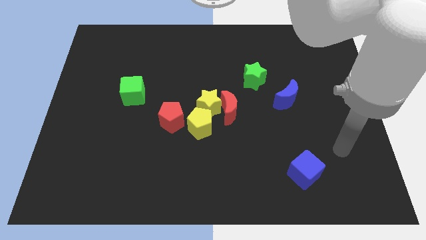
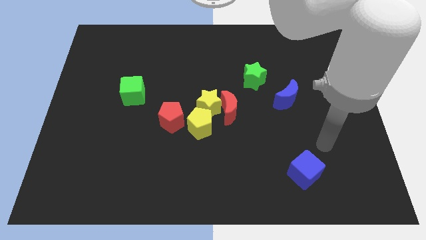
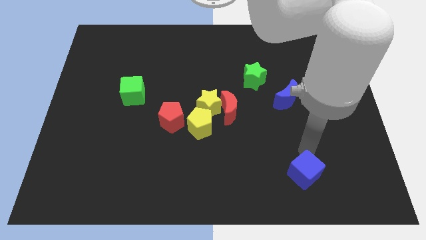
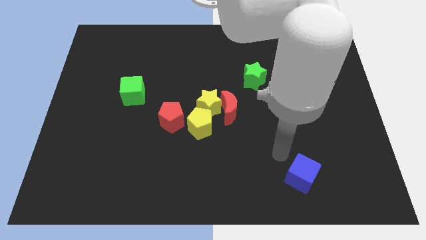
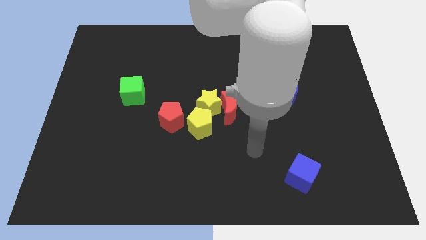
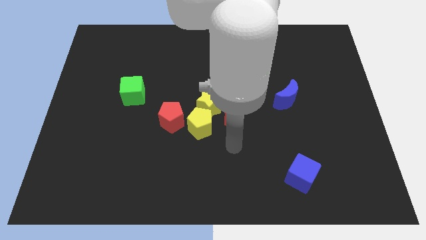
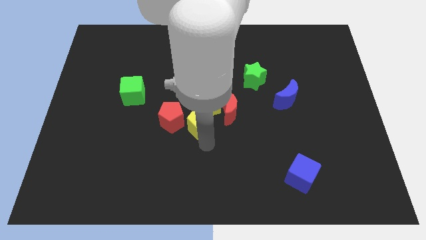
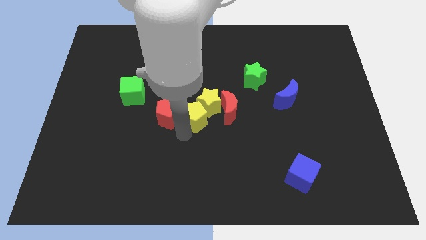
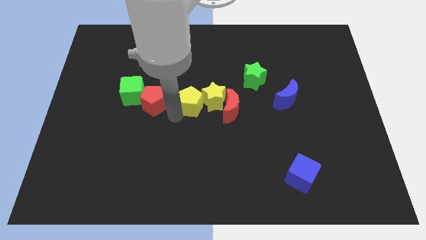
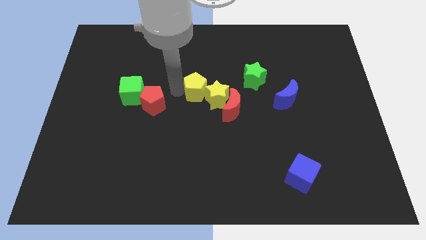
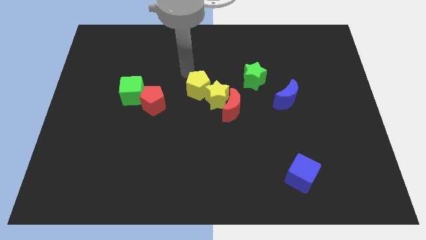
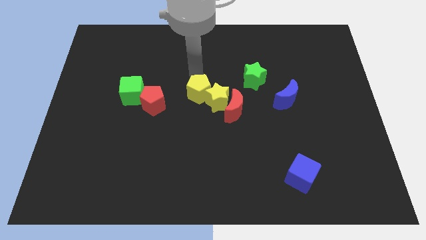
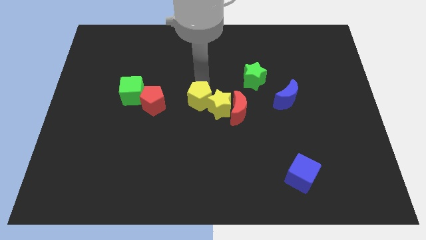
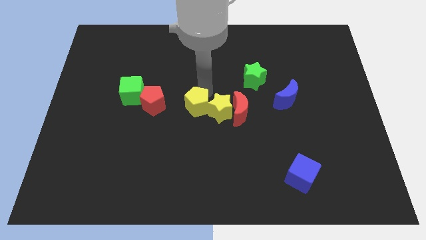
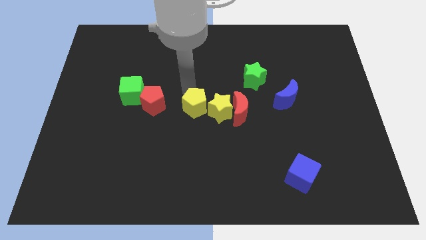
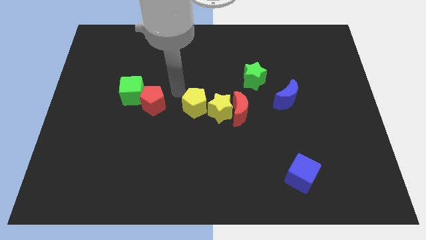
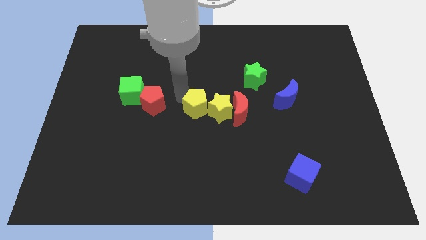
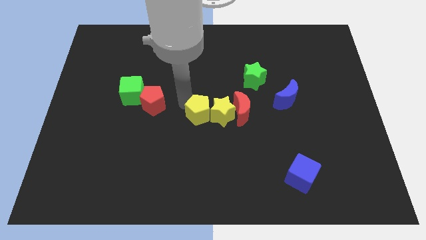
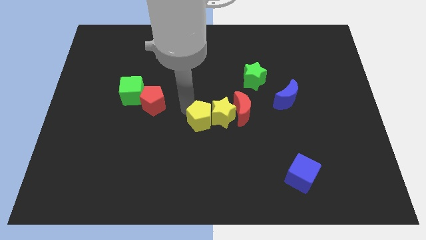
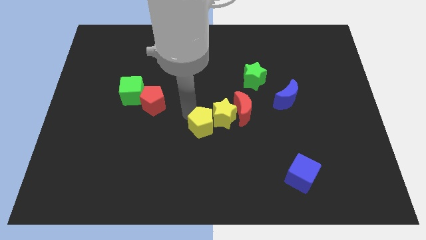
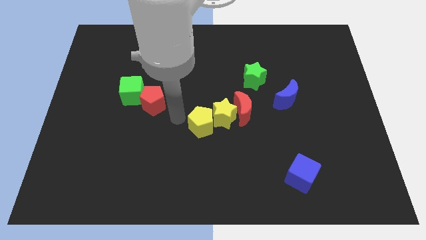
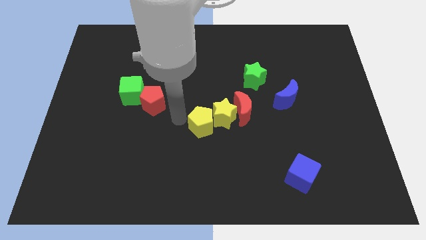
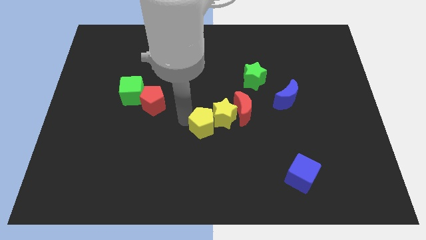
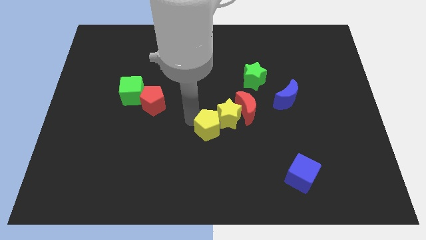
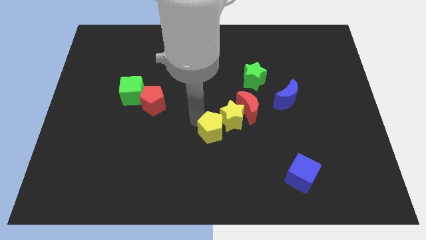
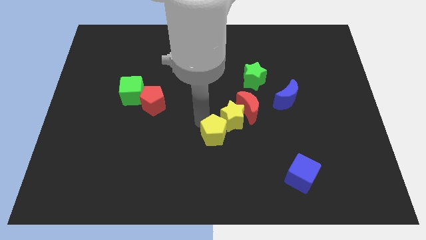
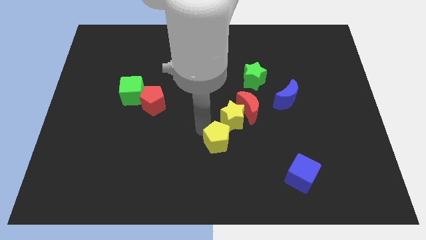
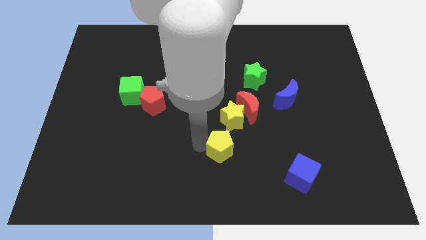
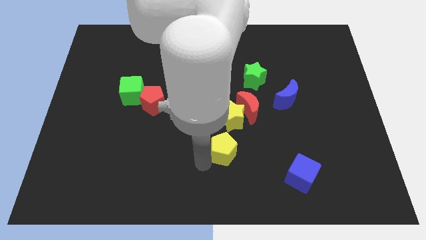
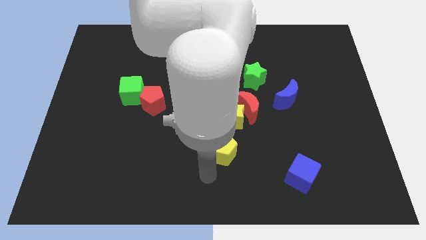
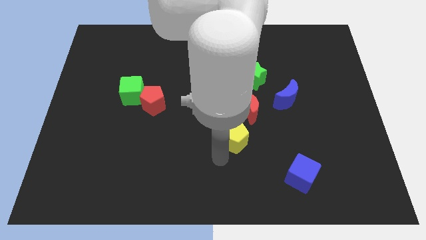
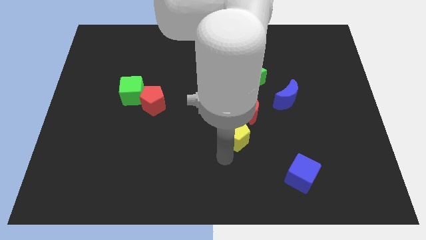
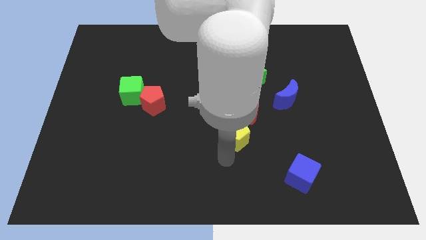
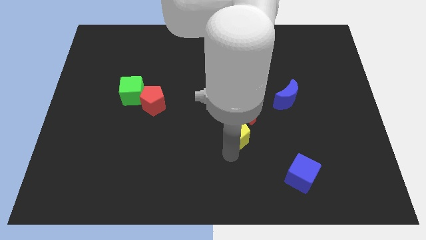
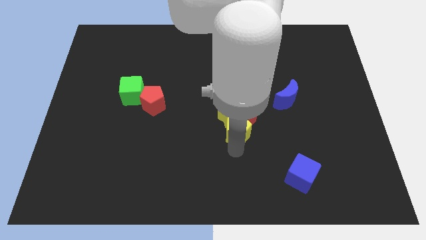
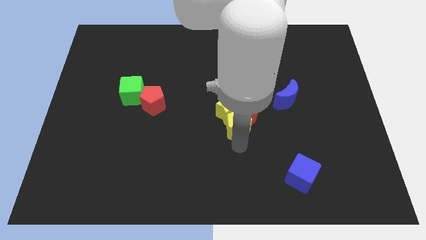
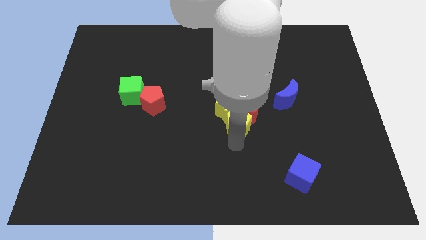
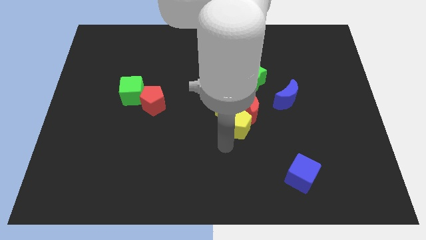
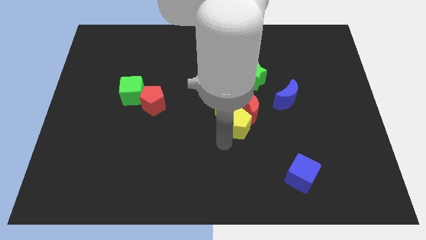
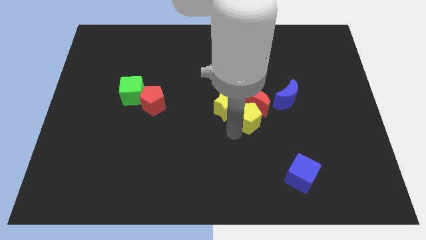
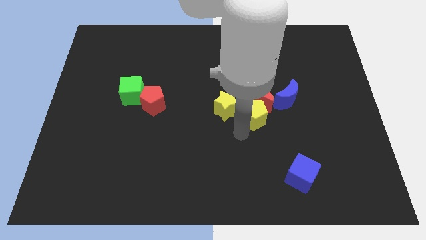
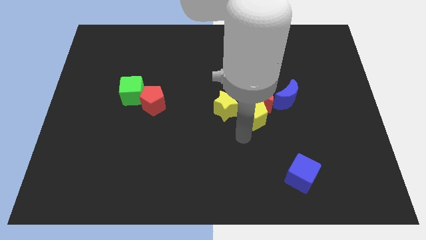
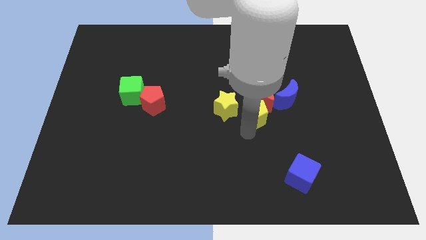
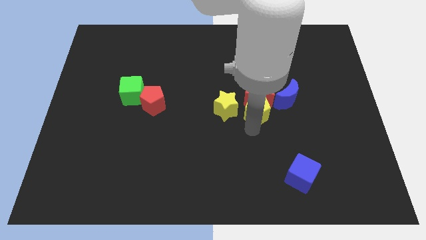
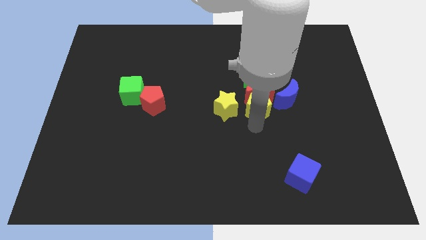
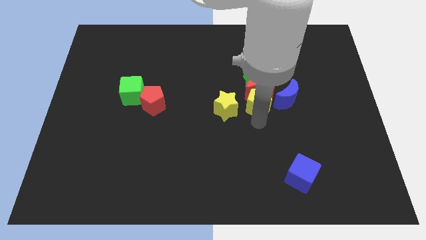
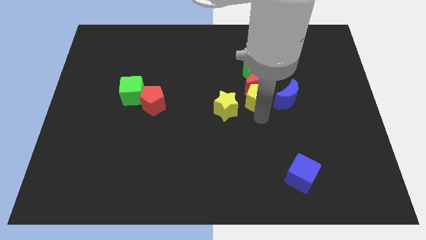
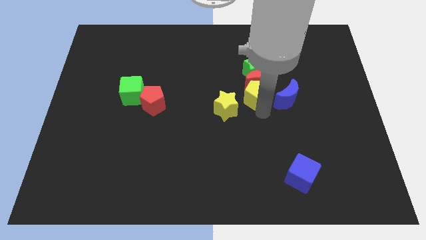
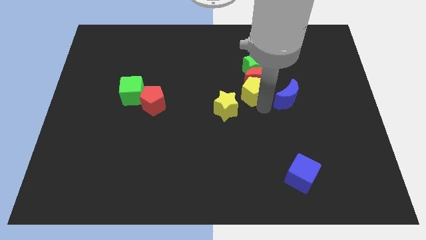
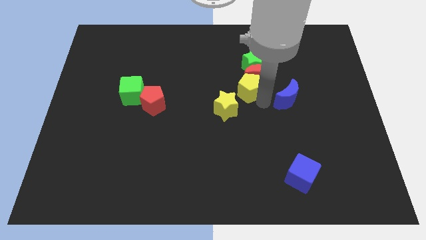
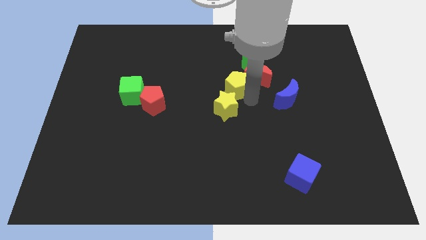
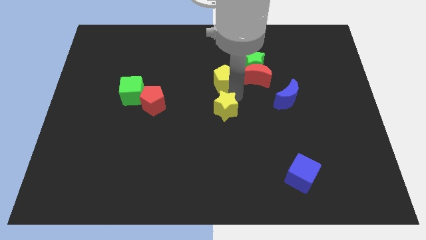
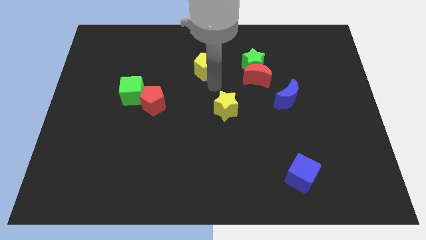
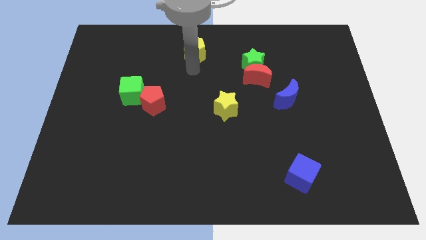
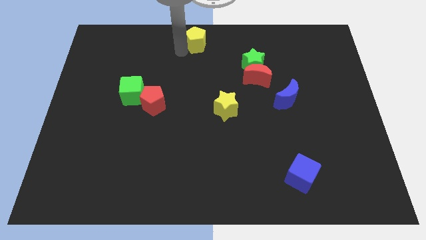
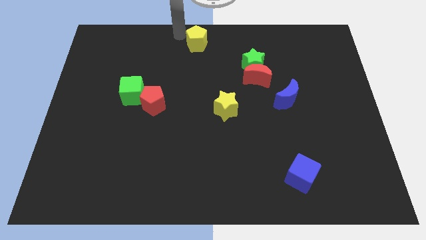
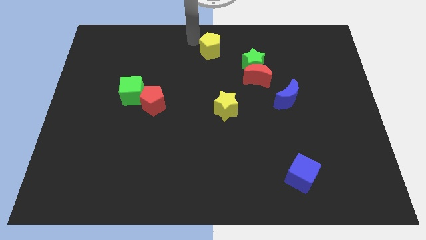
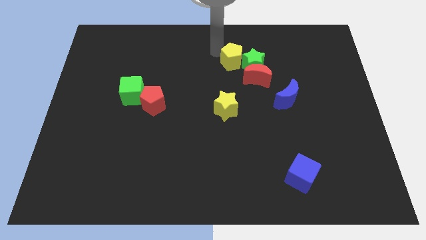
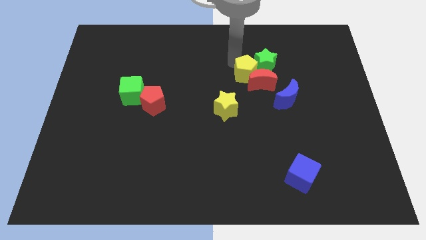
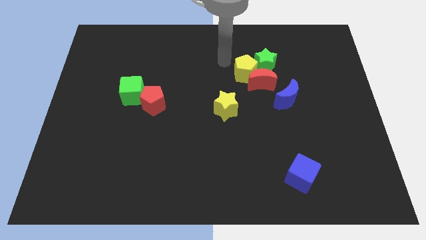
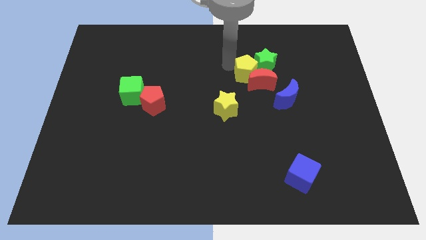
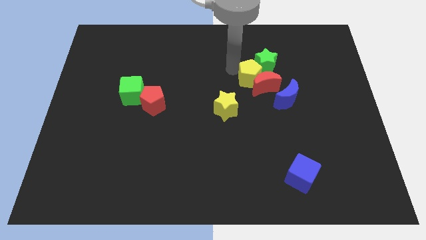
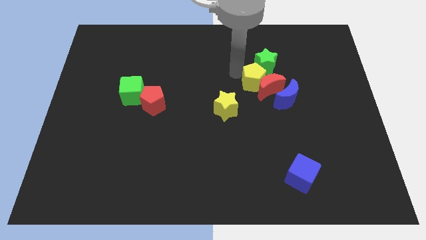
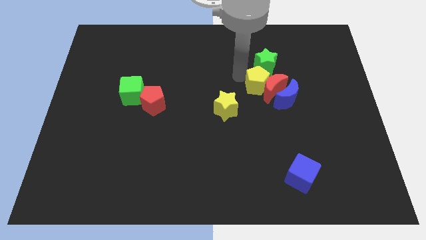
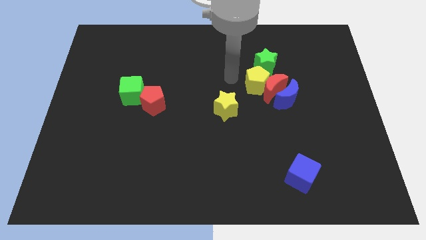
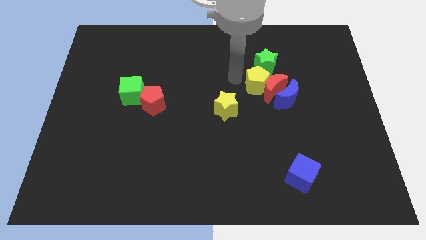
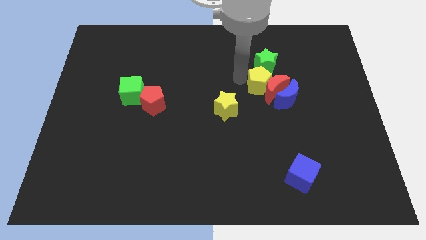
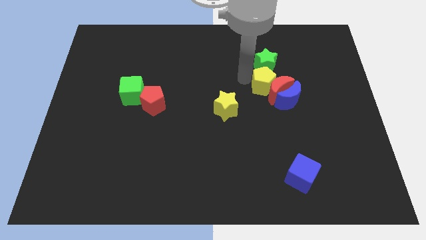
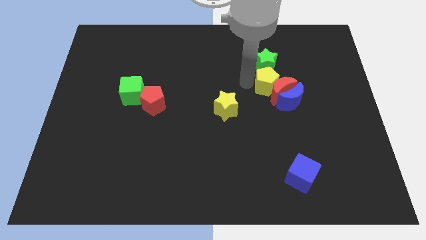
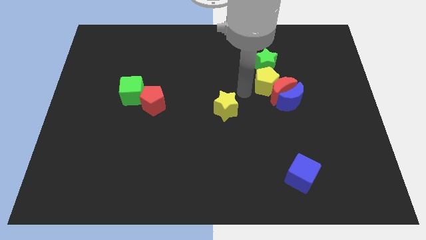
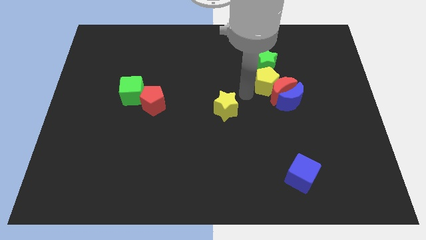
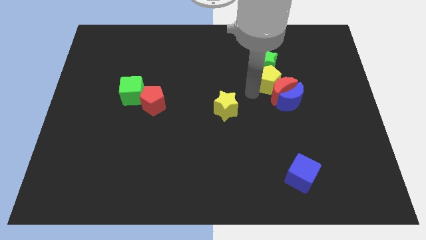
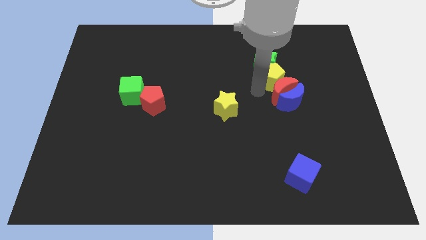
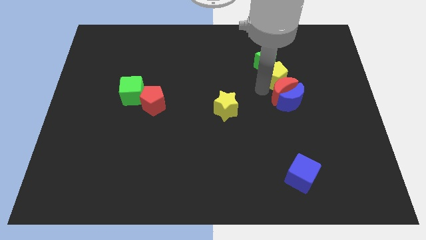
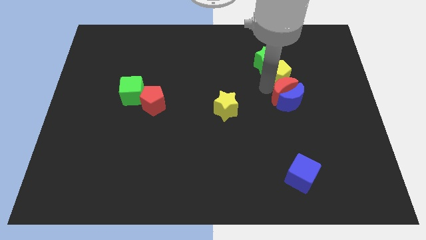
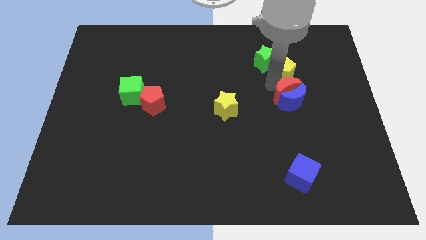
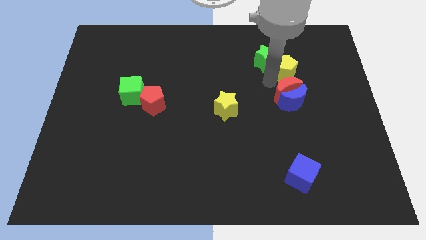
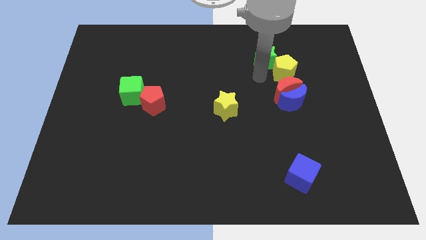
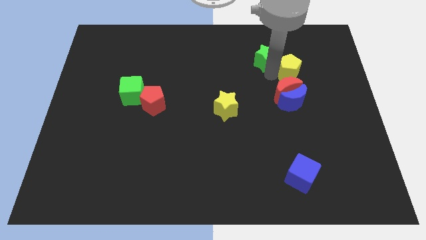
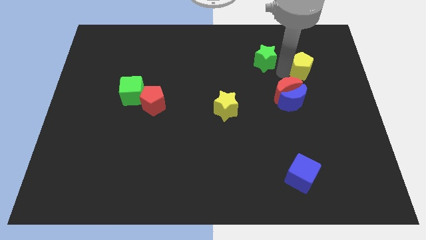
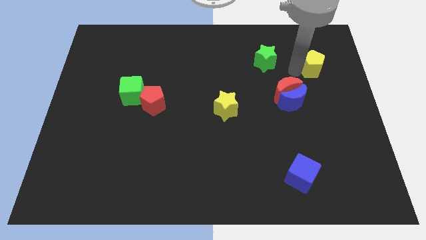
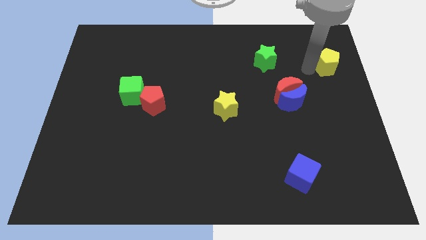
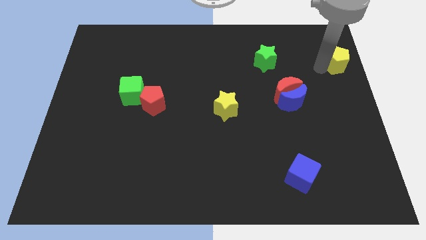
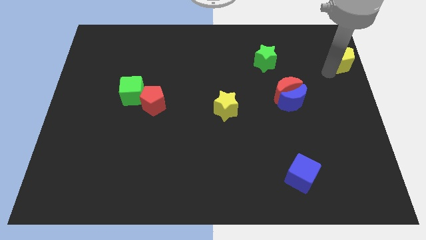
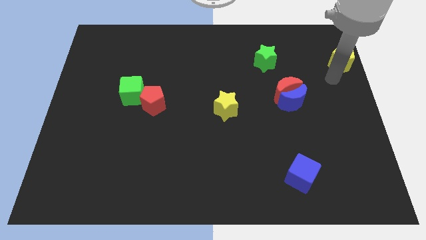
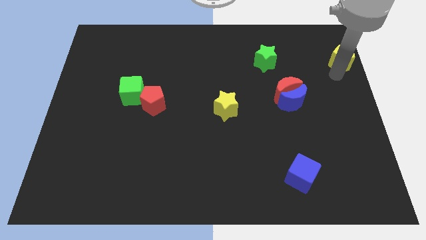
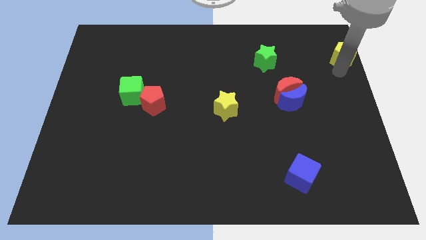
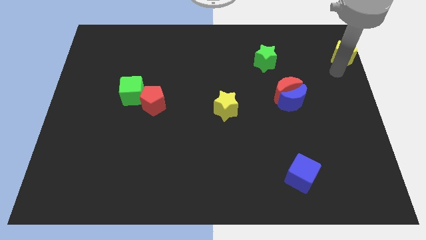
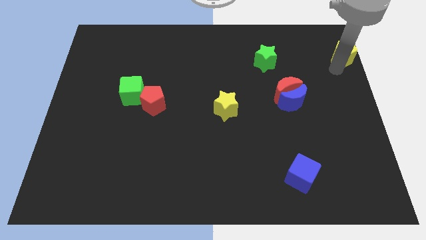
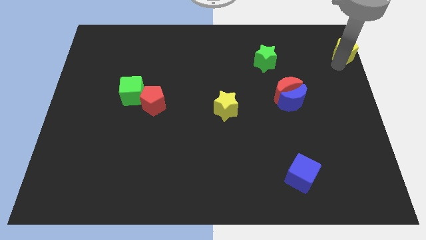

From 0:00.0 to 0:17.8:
push the yellow pentagon to the top right corner
